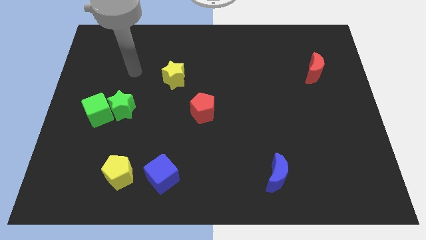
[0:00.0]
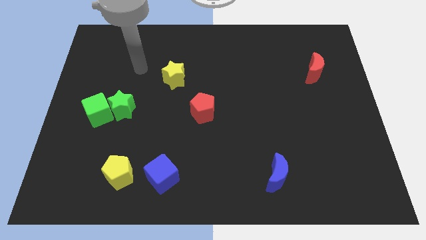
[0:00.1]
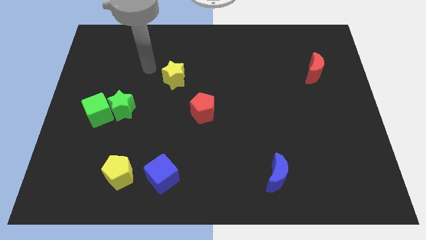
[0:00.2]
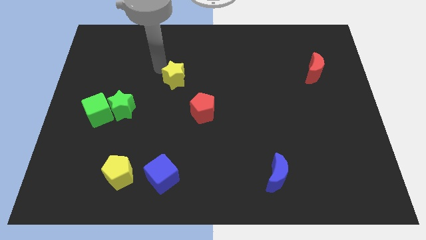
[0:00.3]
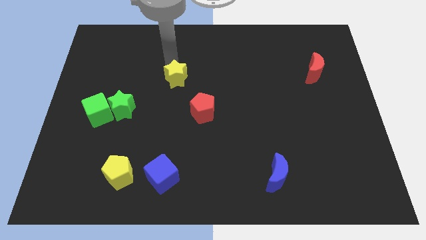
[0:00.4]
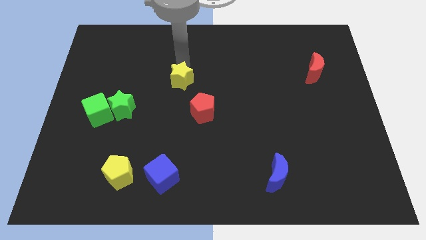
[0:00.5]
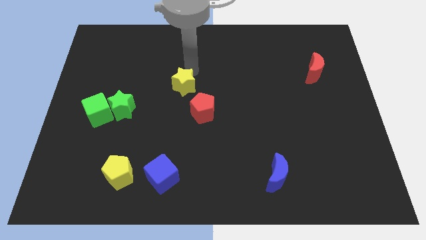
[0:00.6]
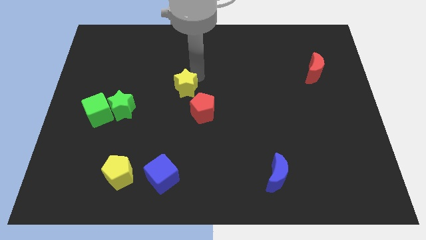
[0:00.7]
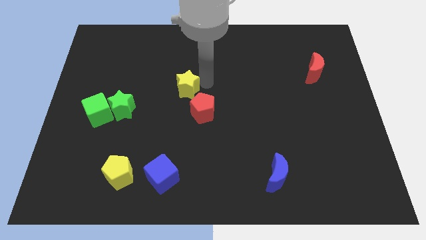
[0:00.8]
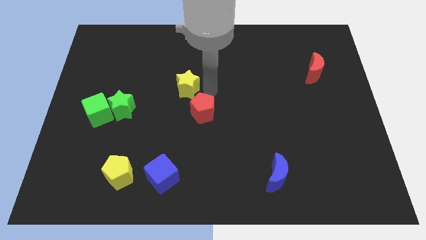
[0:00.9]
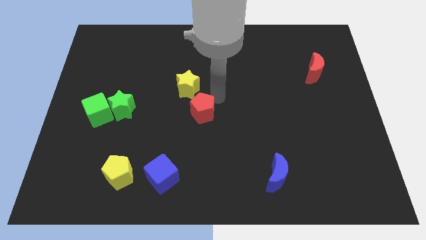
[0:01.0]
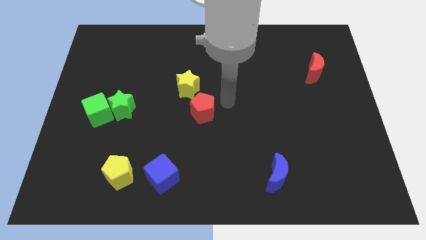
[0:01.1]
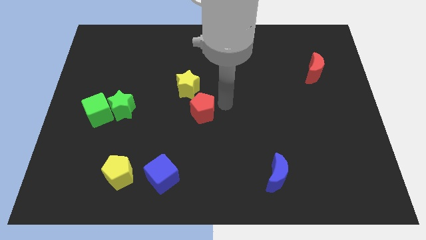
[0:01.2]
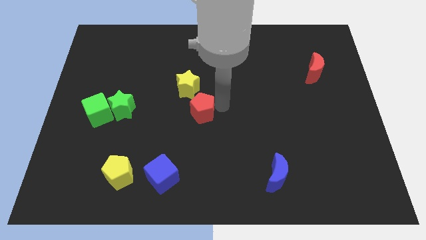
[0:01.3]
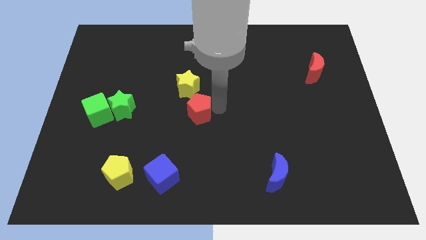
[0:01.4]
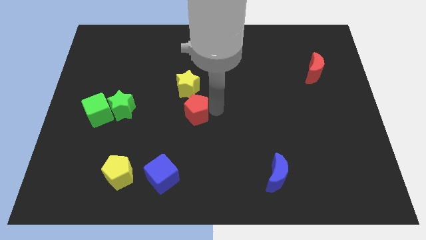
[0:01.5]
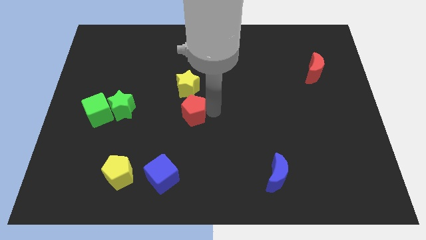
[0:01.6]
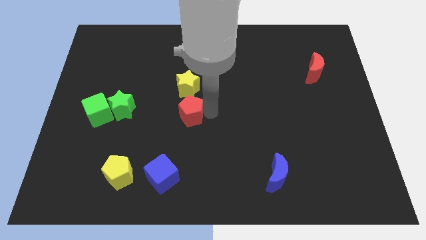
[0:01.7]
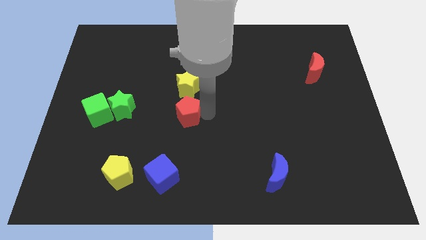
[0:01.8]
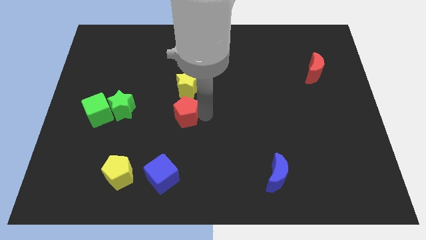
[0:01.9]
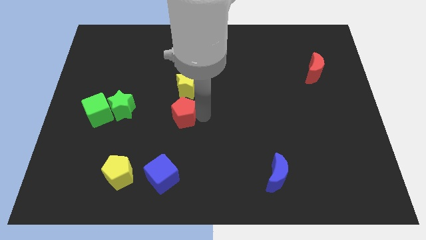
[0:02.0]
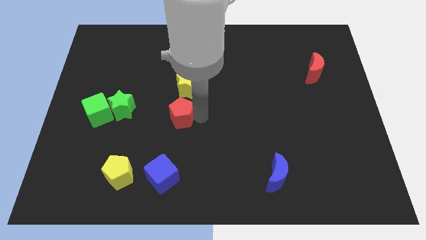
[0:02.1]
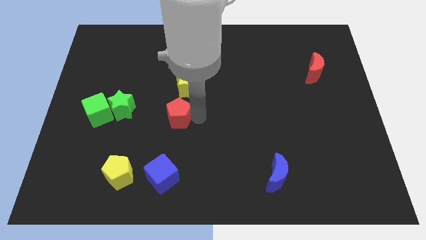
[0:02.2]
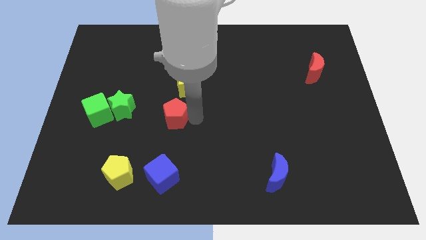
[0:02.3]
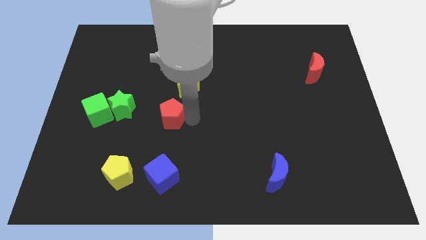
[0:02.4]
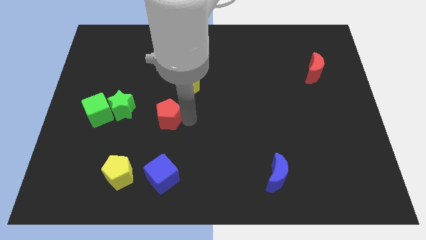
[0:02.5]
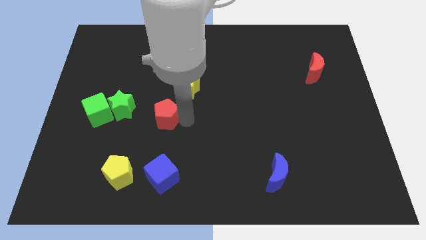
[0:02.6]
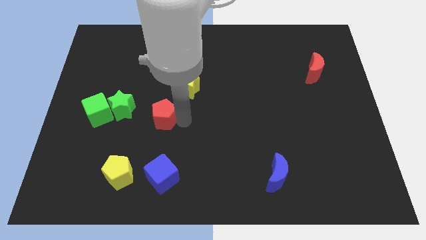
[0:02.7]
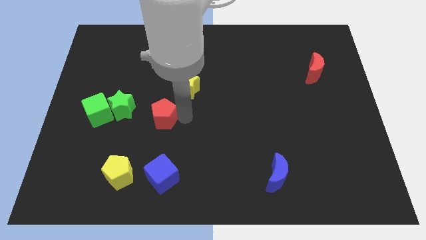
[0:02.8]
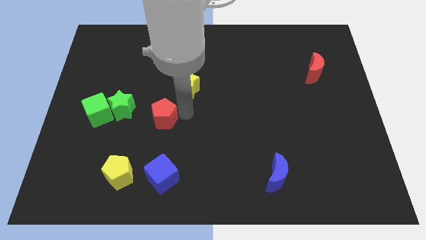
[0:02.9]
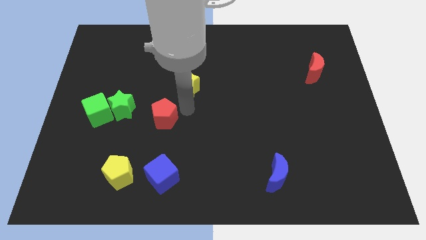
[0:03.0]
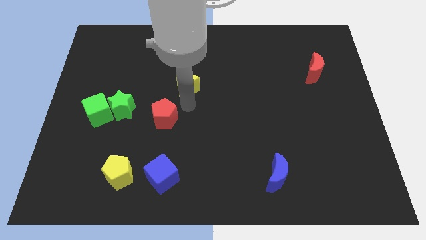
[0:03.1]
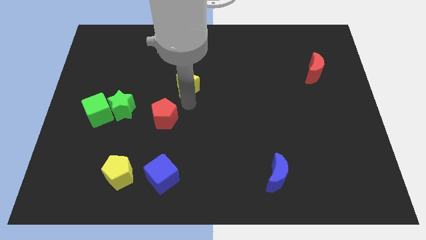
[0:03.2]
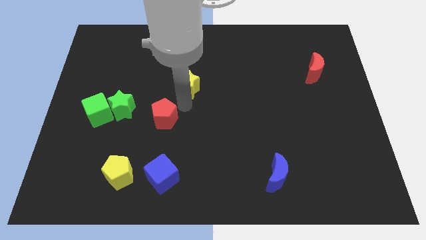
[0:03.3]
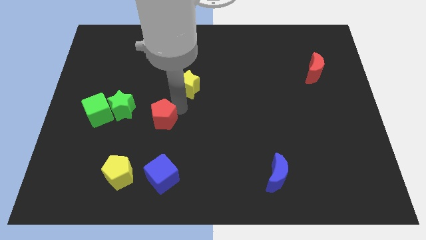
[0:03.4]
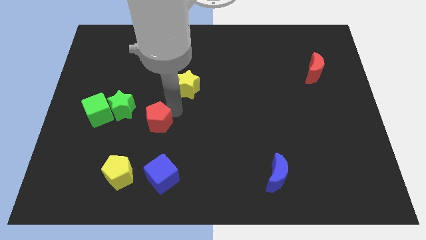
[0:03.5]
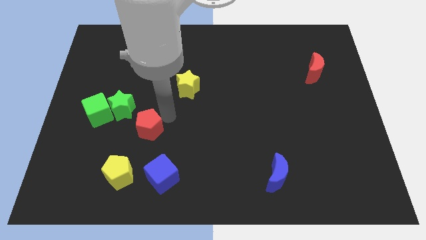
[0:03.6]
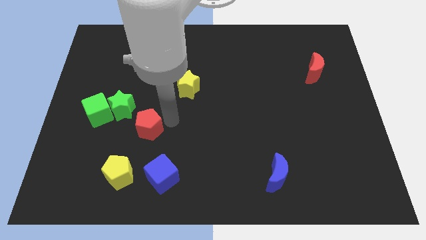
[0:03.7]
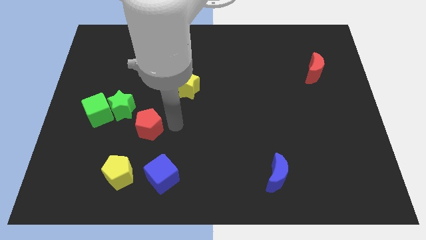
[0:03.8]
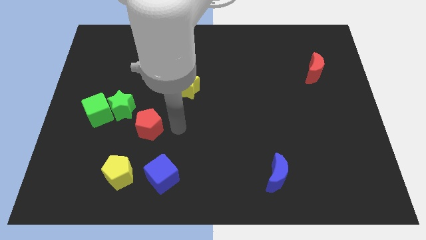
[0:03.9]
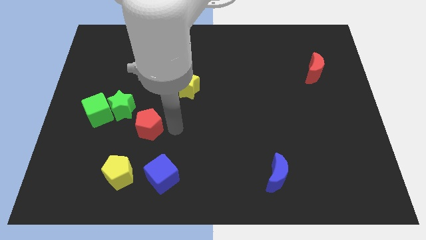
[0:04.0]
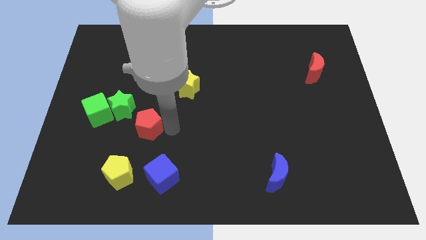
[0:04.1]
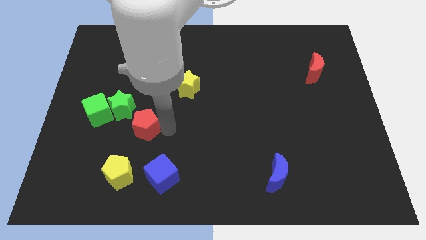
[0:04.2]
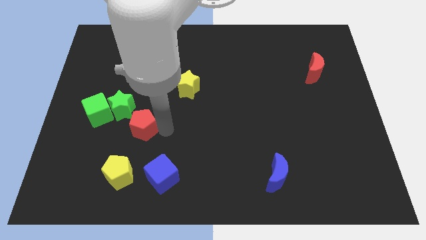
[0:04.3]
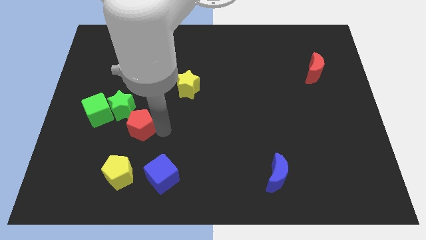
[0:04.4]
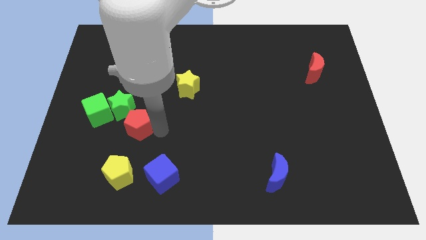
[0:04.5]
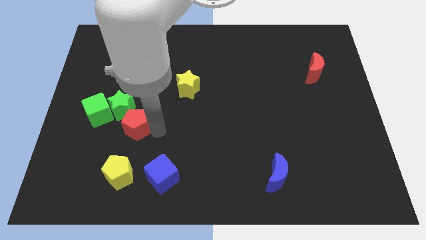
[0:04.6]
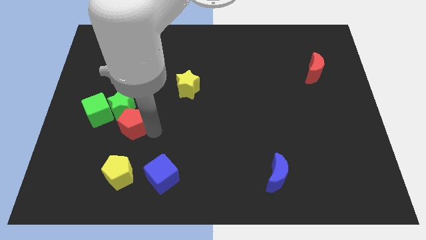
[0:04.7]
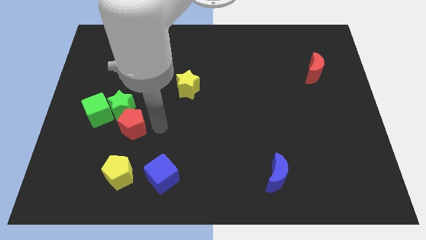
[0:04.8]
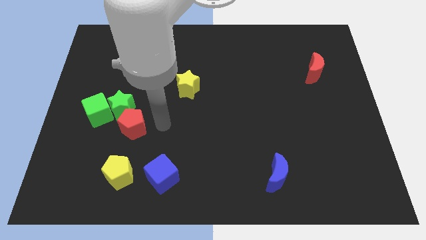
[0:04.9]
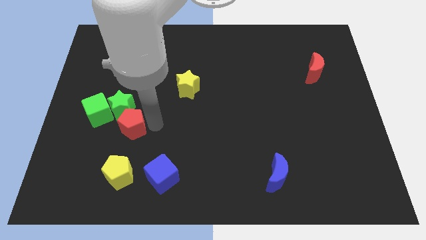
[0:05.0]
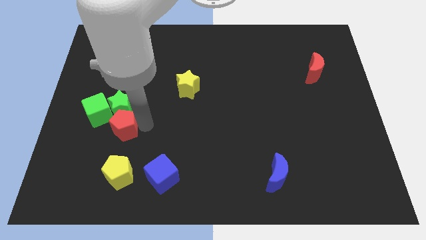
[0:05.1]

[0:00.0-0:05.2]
push the red pentagon to the bottom left of the green star

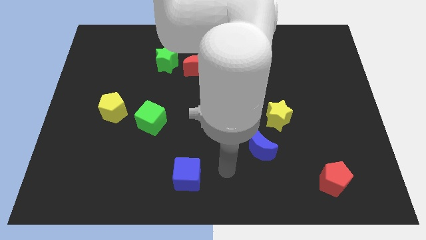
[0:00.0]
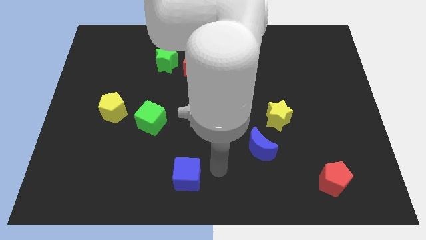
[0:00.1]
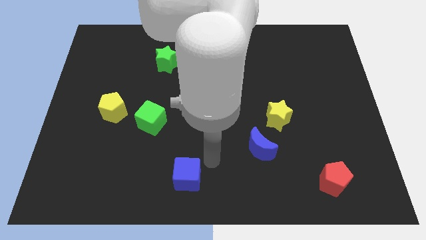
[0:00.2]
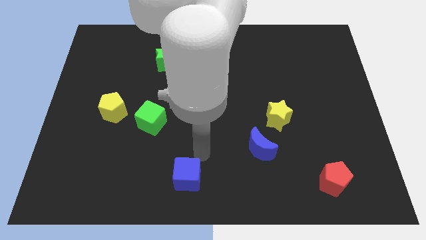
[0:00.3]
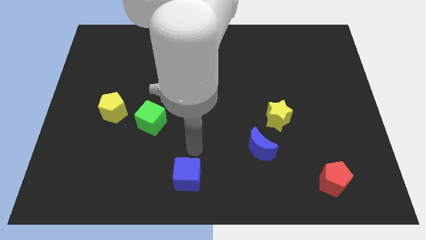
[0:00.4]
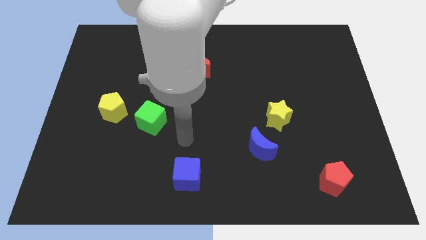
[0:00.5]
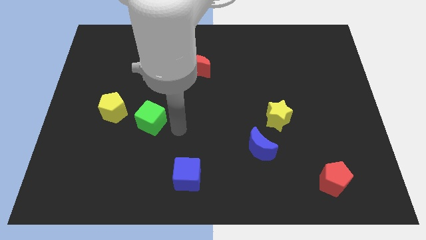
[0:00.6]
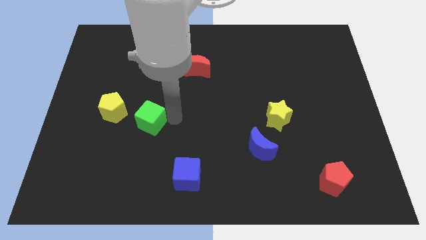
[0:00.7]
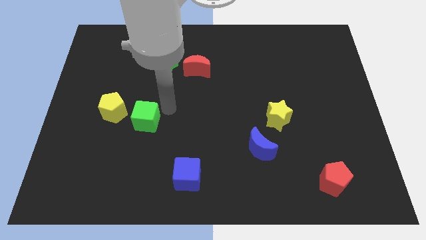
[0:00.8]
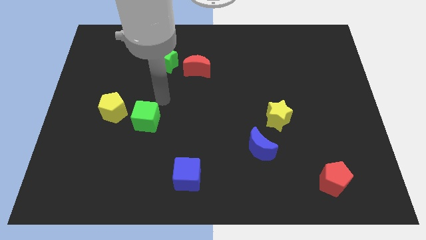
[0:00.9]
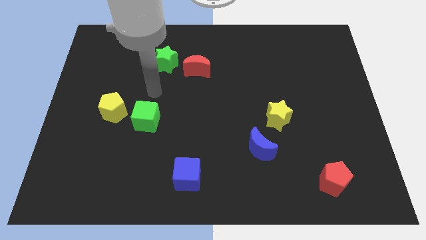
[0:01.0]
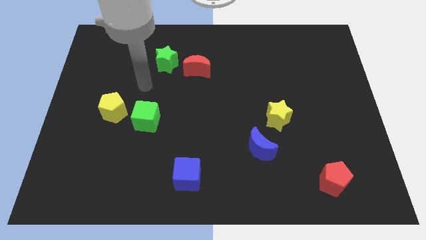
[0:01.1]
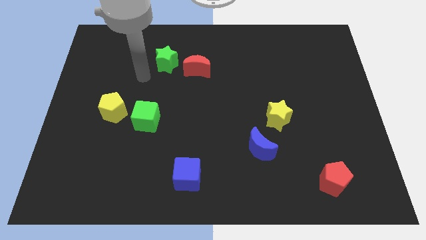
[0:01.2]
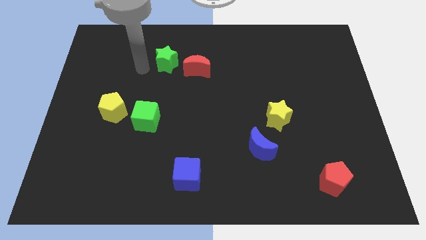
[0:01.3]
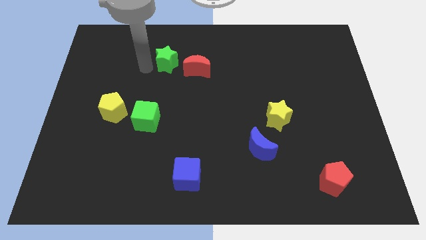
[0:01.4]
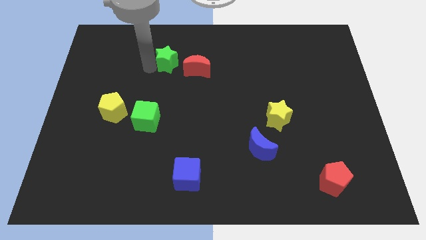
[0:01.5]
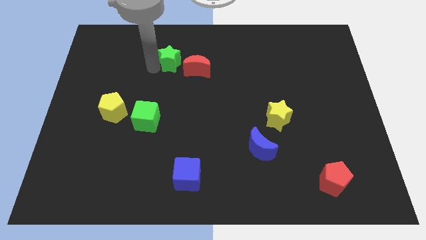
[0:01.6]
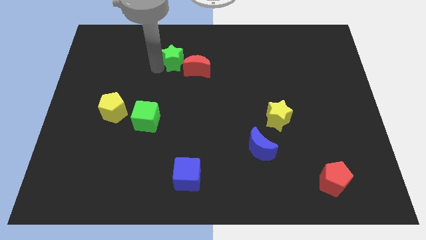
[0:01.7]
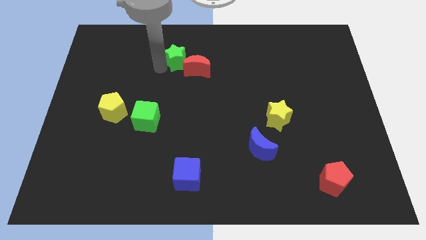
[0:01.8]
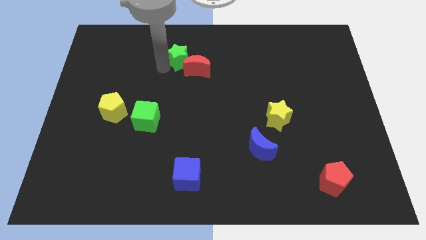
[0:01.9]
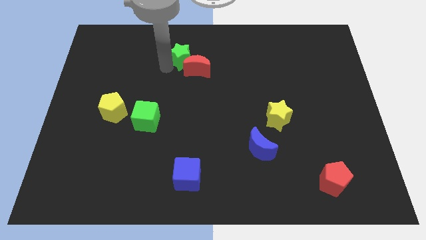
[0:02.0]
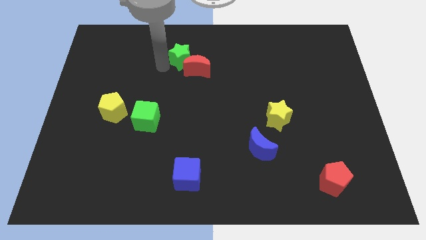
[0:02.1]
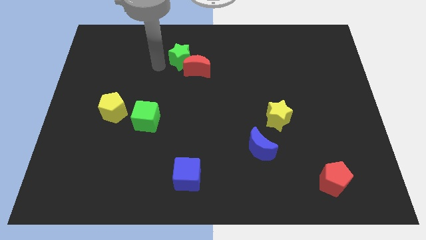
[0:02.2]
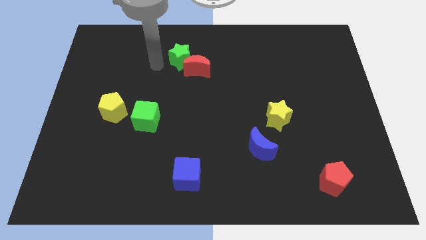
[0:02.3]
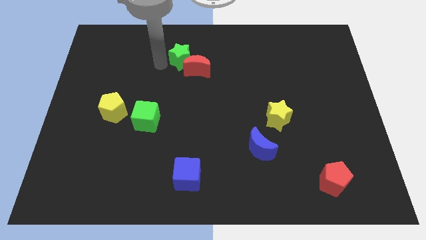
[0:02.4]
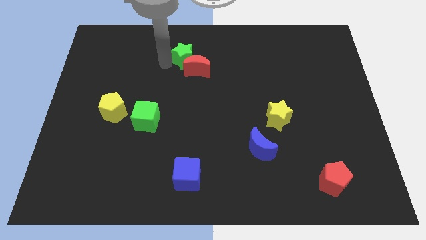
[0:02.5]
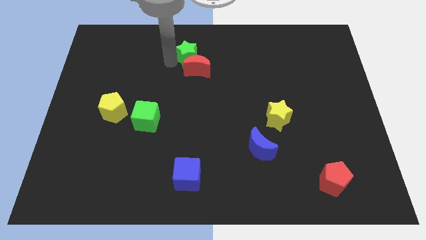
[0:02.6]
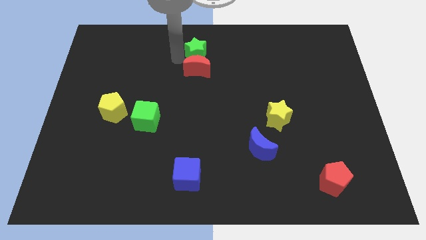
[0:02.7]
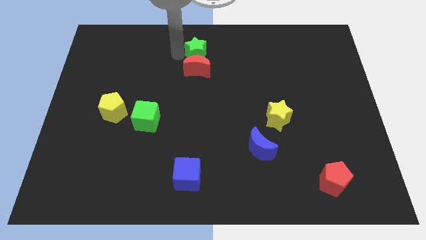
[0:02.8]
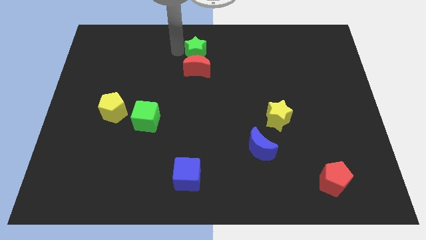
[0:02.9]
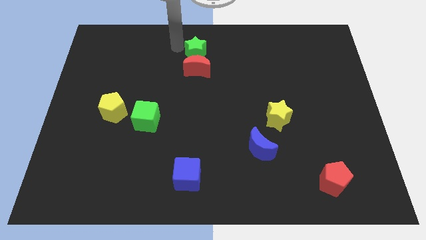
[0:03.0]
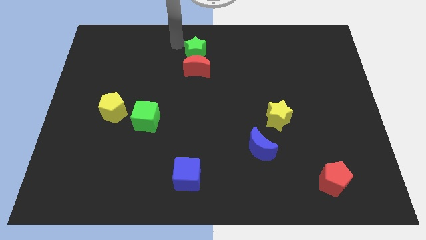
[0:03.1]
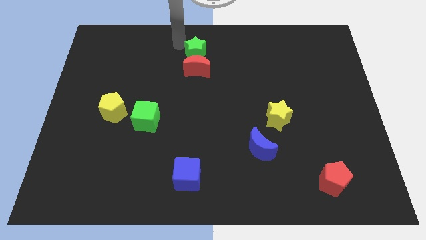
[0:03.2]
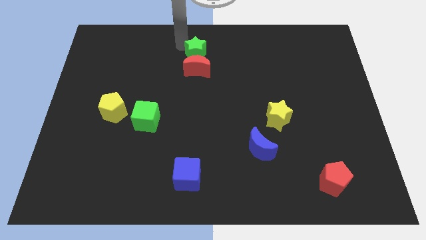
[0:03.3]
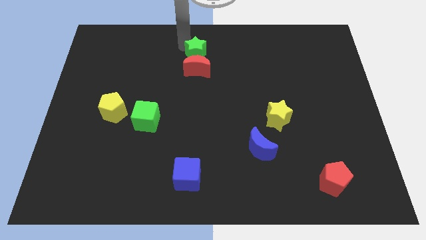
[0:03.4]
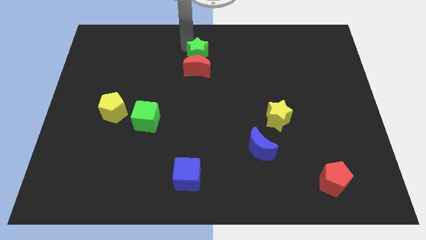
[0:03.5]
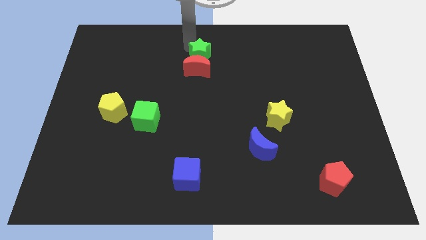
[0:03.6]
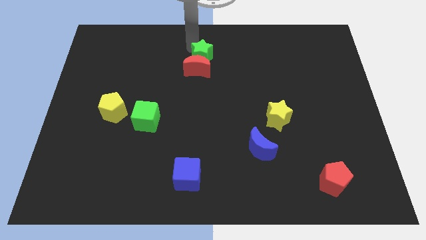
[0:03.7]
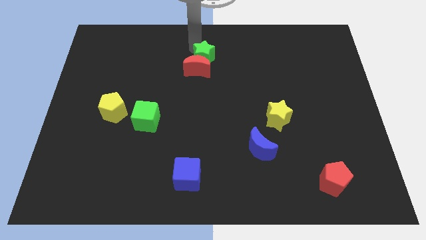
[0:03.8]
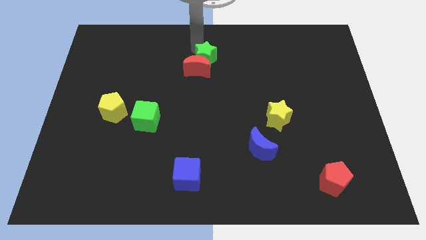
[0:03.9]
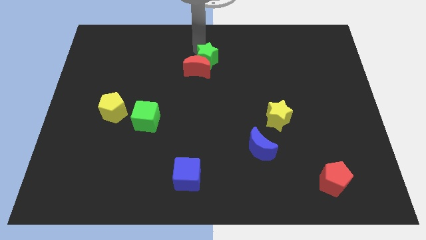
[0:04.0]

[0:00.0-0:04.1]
slide the green star to the right side of the red moon
